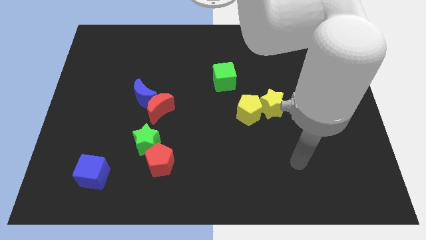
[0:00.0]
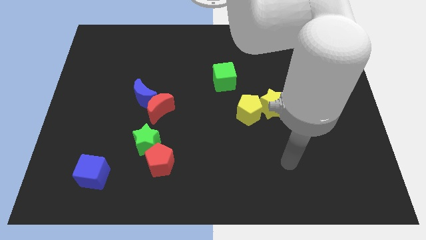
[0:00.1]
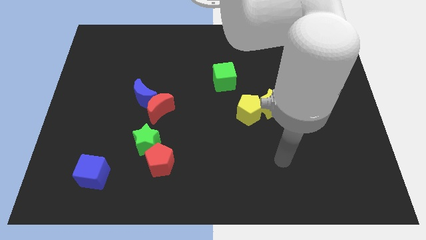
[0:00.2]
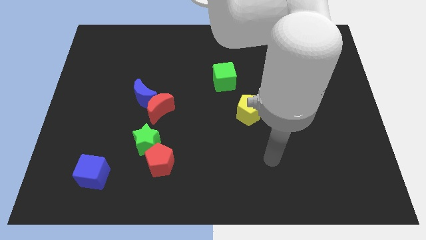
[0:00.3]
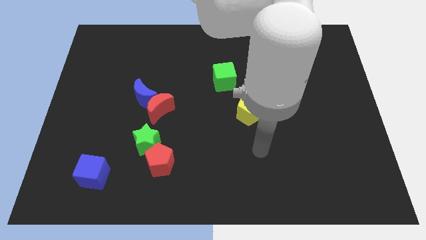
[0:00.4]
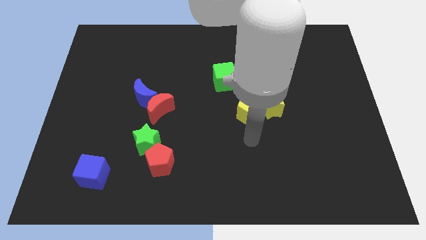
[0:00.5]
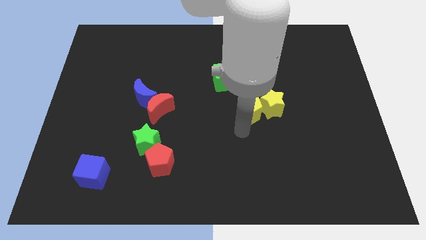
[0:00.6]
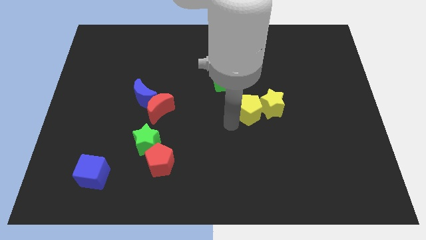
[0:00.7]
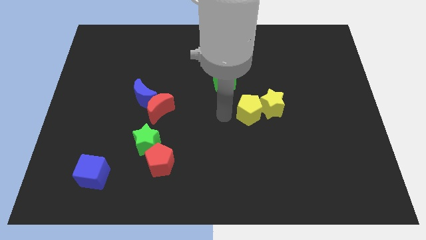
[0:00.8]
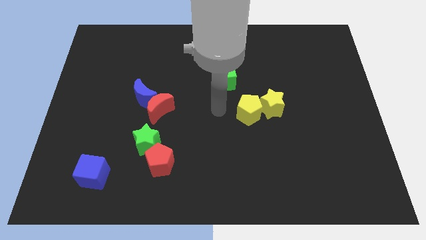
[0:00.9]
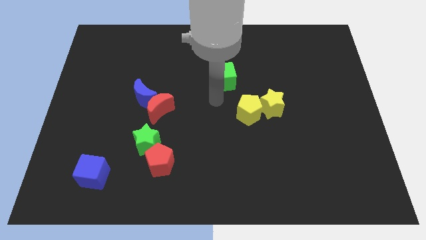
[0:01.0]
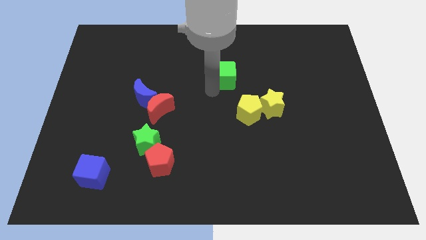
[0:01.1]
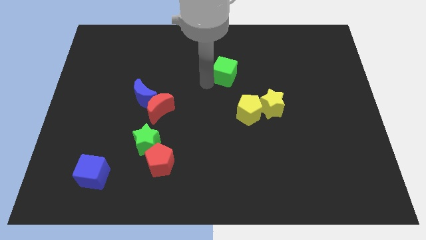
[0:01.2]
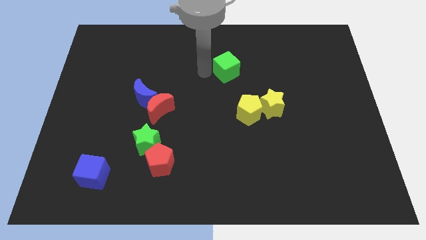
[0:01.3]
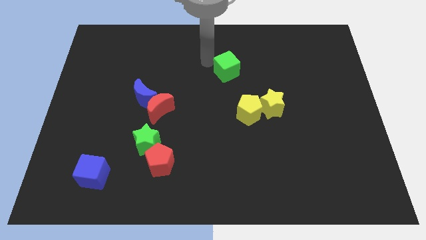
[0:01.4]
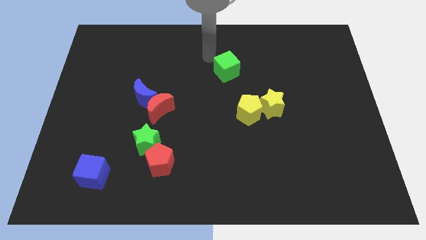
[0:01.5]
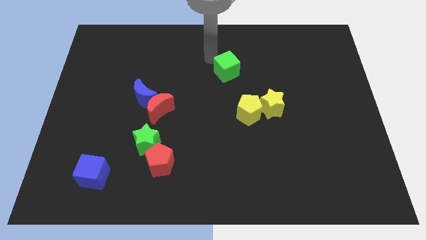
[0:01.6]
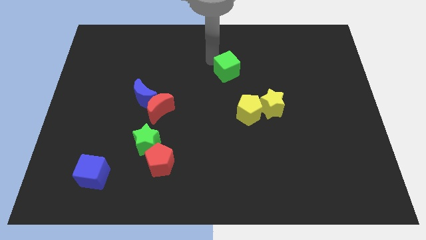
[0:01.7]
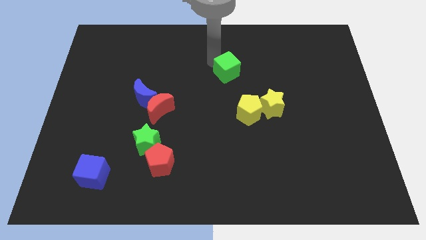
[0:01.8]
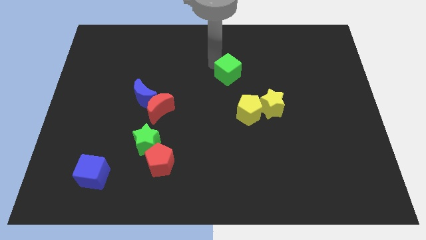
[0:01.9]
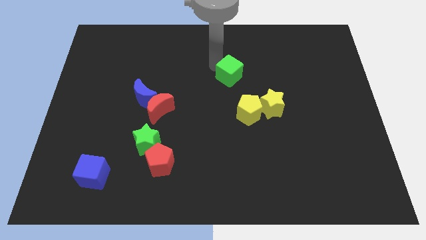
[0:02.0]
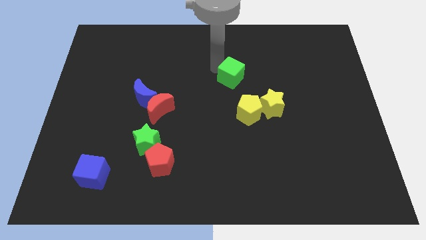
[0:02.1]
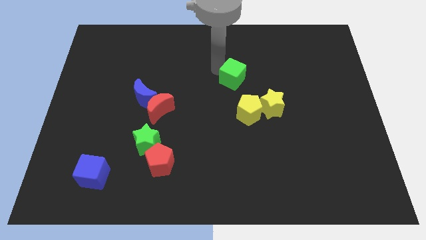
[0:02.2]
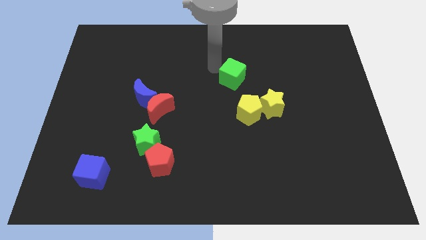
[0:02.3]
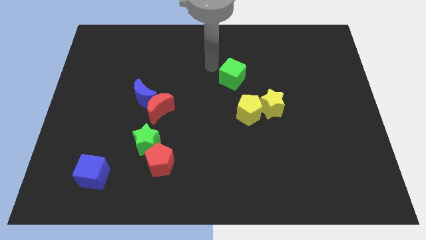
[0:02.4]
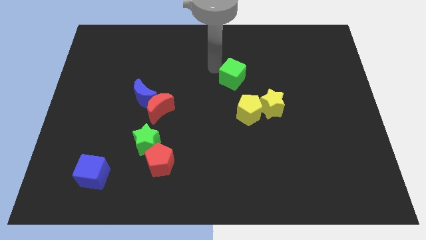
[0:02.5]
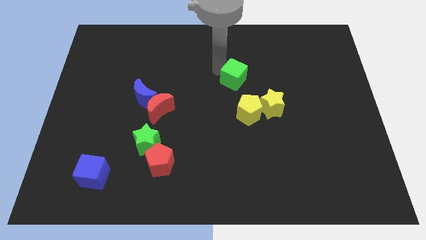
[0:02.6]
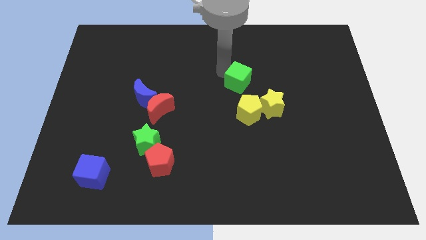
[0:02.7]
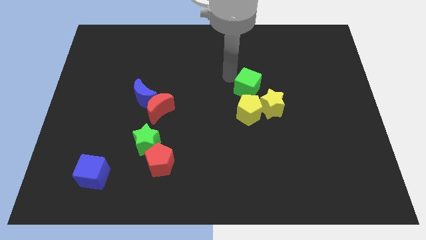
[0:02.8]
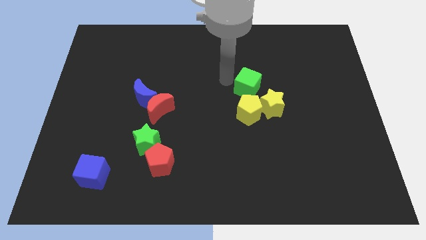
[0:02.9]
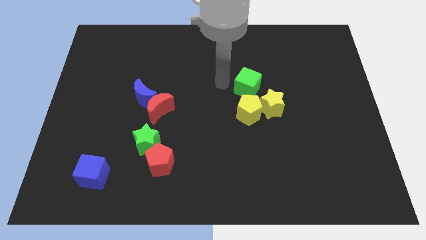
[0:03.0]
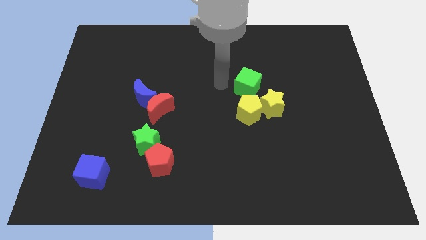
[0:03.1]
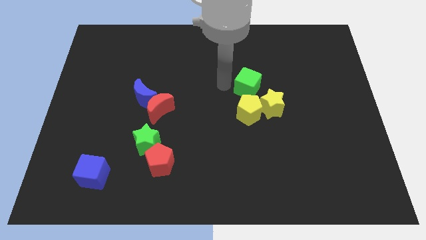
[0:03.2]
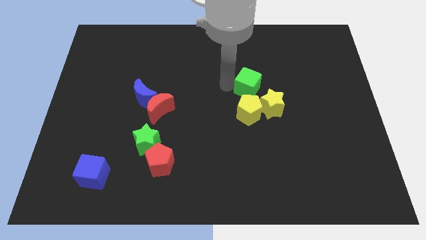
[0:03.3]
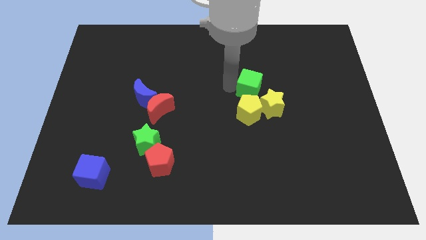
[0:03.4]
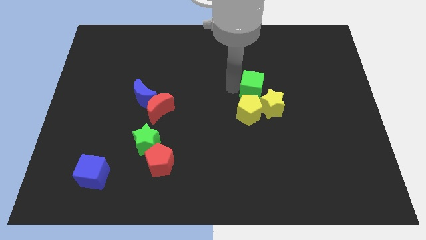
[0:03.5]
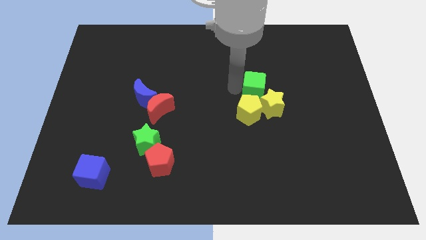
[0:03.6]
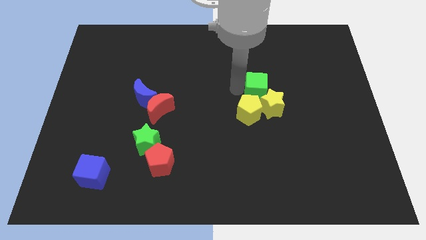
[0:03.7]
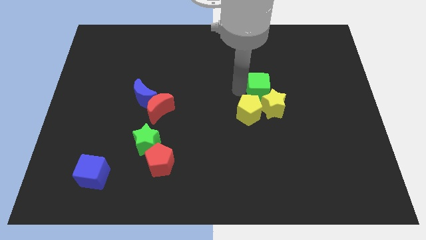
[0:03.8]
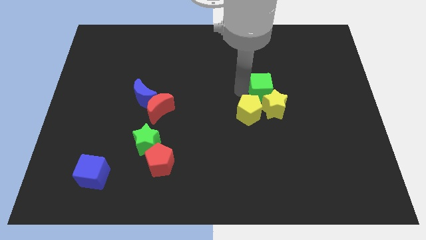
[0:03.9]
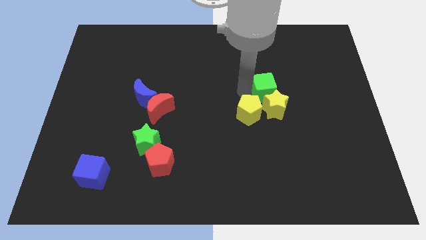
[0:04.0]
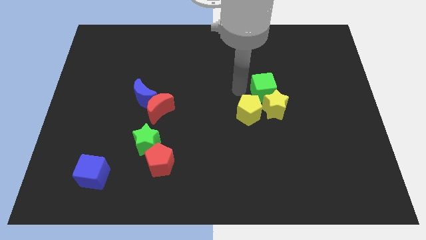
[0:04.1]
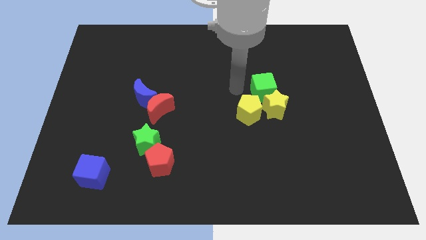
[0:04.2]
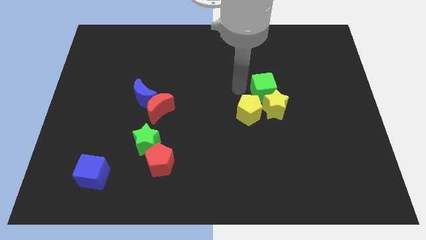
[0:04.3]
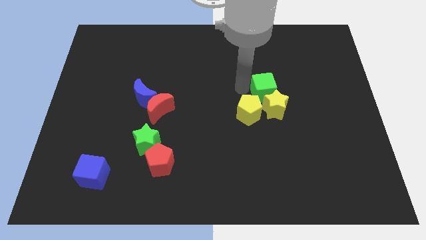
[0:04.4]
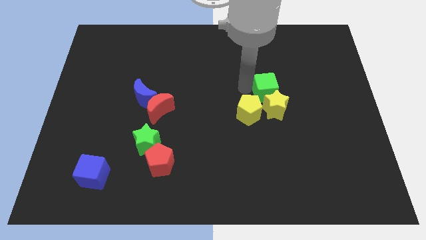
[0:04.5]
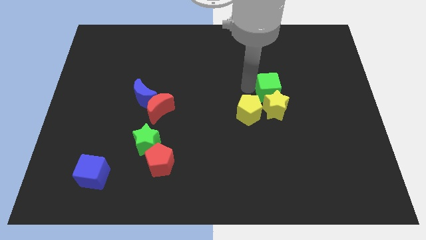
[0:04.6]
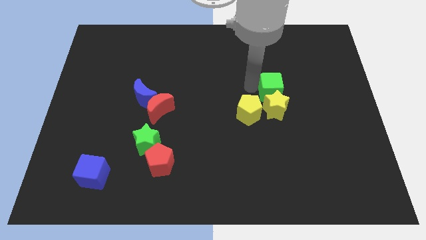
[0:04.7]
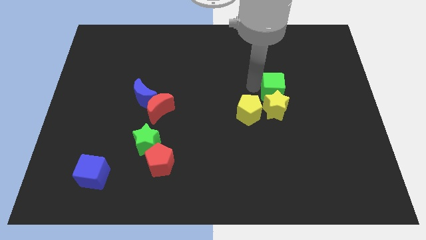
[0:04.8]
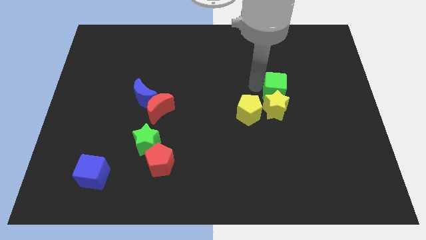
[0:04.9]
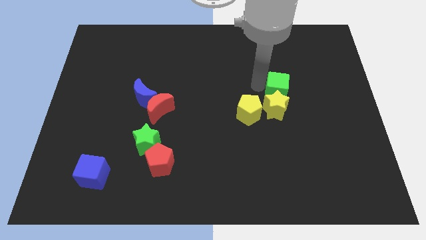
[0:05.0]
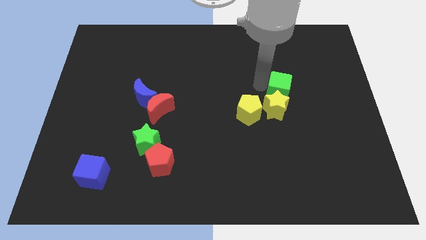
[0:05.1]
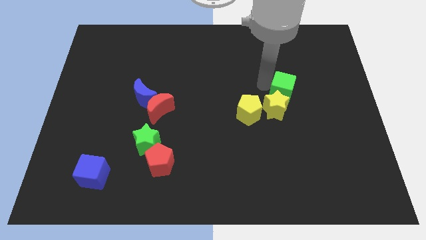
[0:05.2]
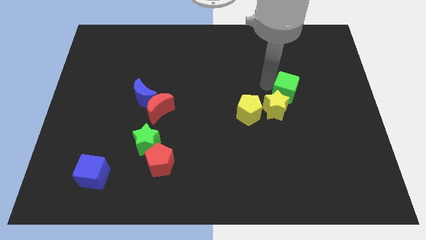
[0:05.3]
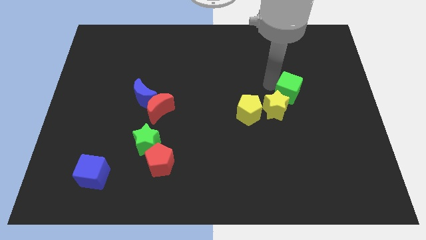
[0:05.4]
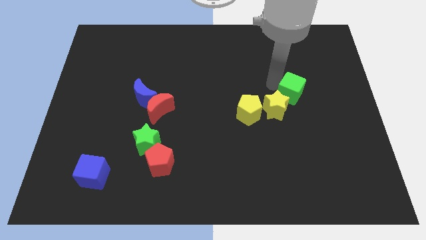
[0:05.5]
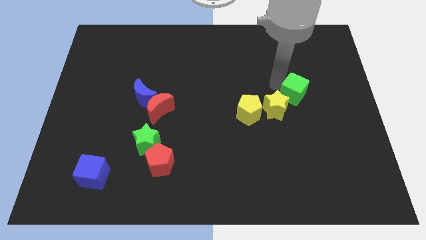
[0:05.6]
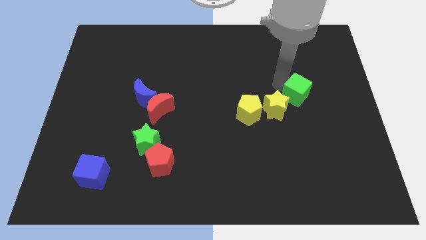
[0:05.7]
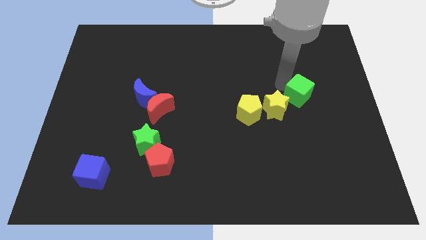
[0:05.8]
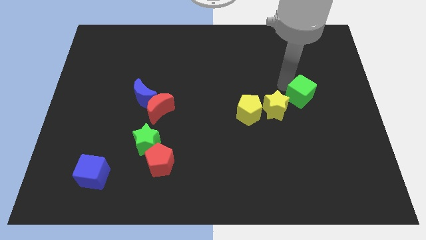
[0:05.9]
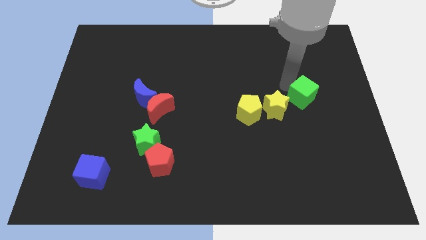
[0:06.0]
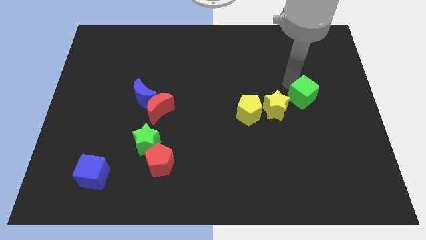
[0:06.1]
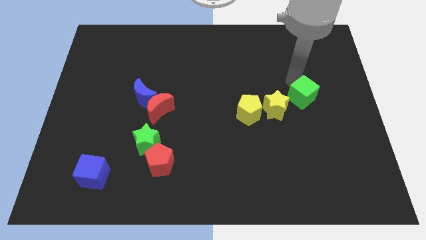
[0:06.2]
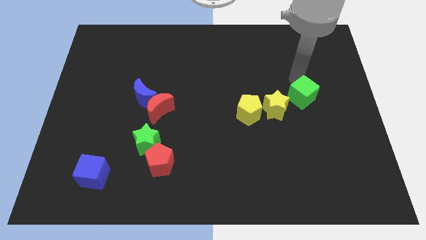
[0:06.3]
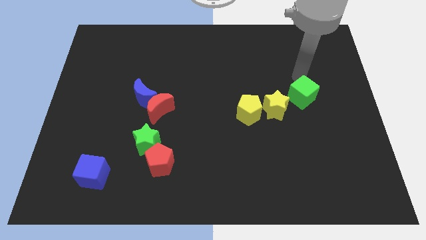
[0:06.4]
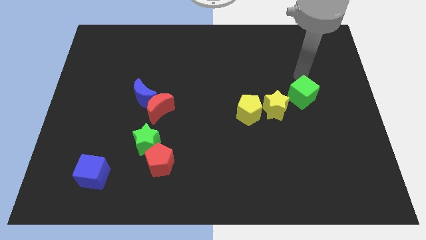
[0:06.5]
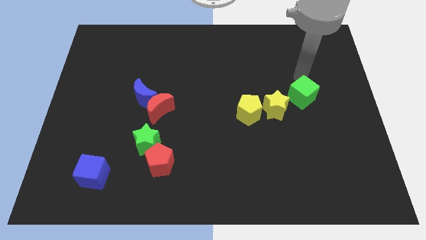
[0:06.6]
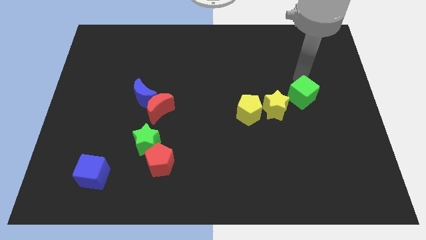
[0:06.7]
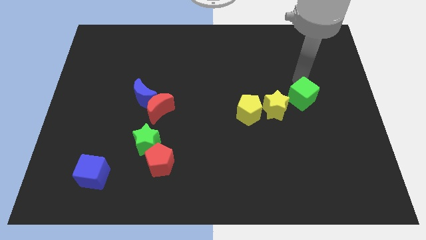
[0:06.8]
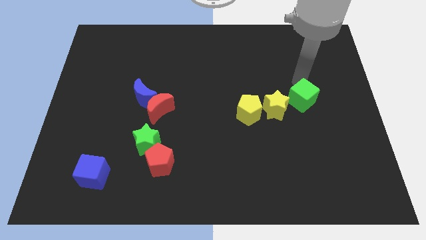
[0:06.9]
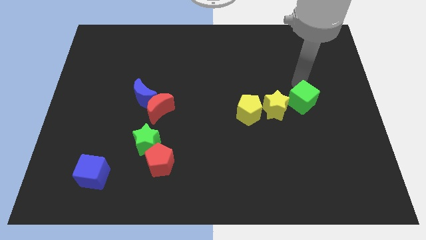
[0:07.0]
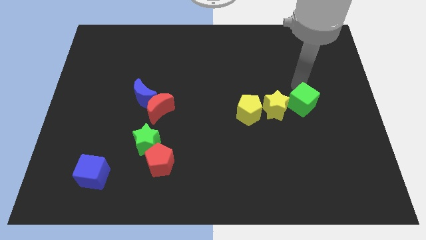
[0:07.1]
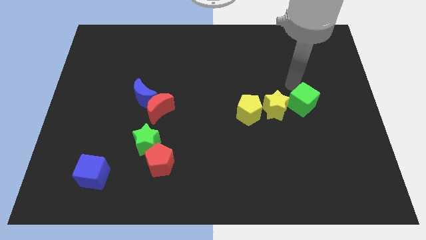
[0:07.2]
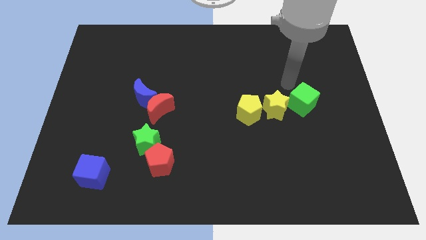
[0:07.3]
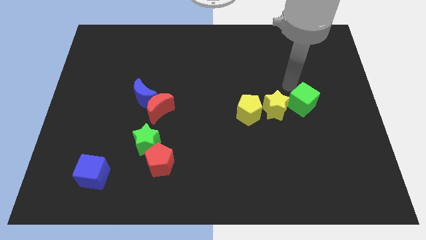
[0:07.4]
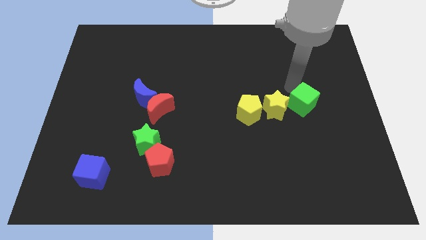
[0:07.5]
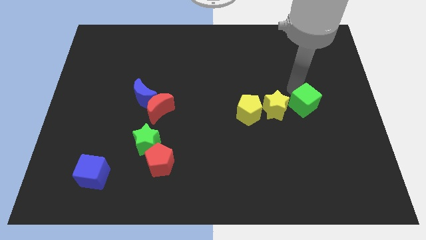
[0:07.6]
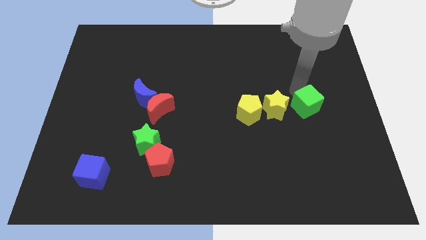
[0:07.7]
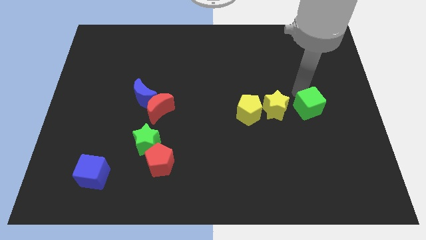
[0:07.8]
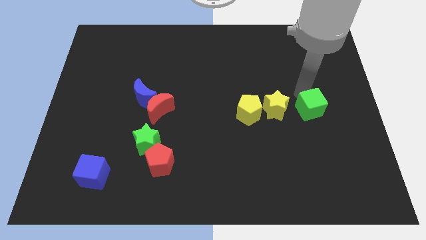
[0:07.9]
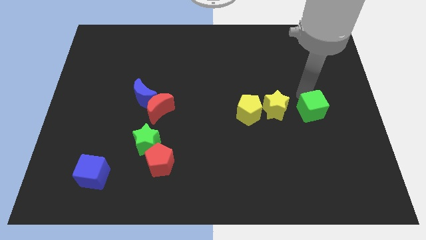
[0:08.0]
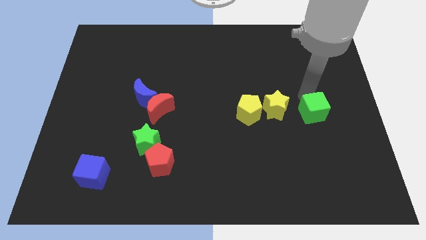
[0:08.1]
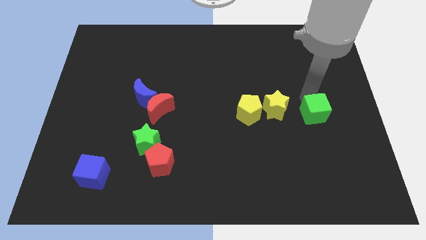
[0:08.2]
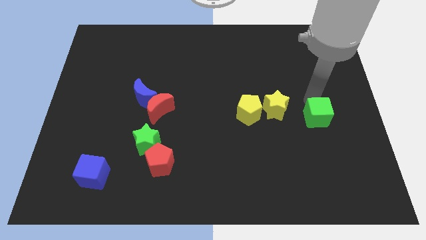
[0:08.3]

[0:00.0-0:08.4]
push the green cube down and then right
